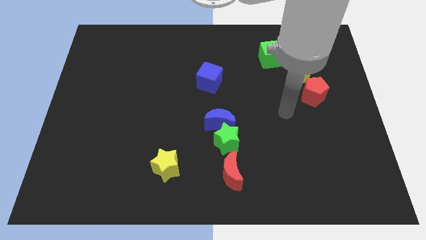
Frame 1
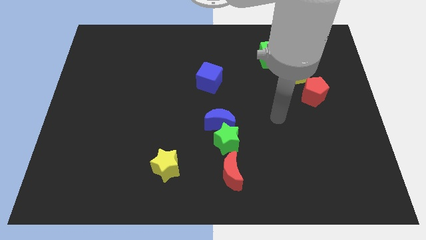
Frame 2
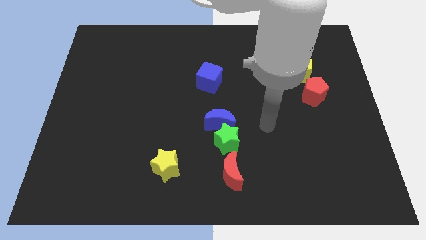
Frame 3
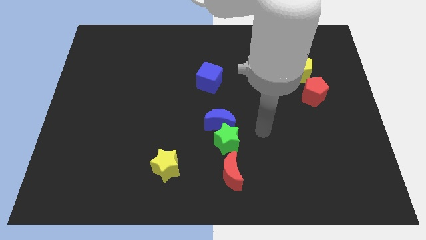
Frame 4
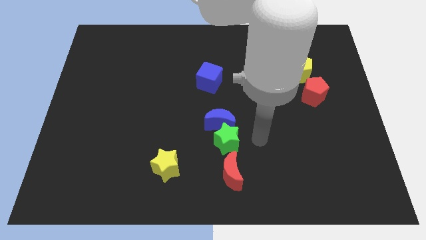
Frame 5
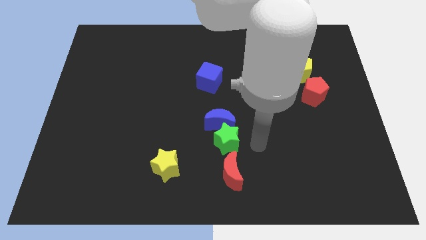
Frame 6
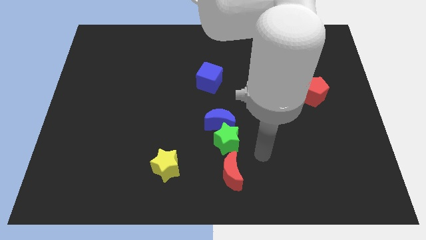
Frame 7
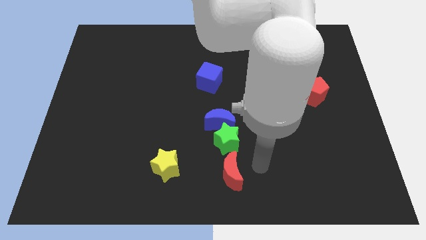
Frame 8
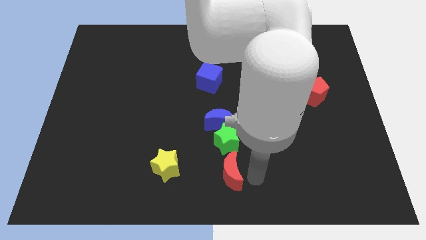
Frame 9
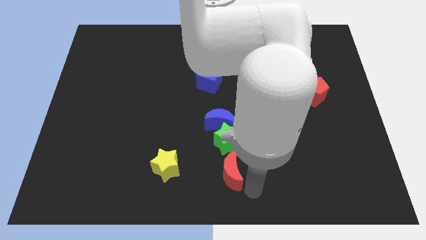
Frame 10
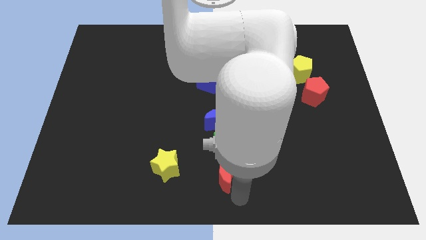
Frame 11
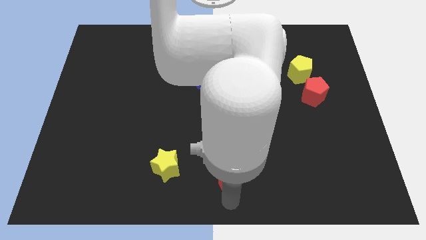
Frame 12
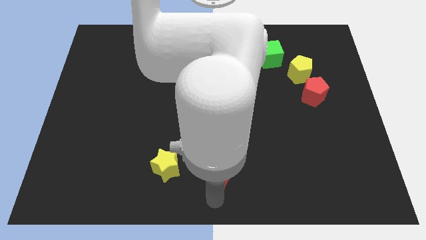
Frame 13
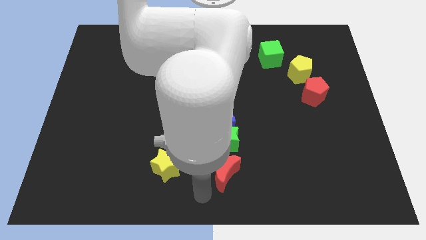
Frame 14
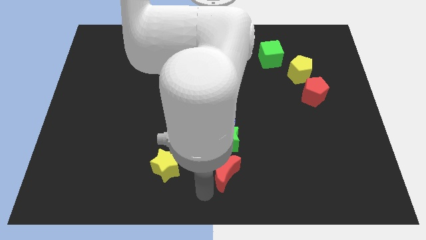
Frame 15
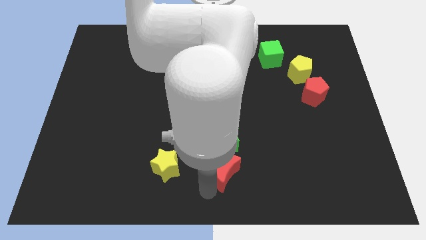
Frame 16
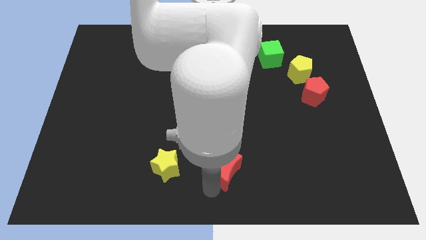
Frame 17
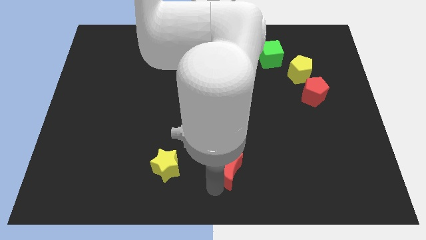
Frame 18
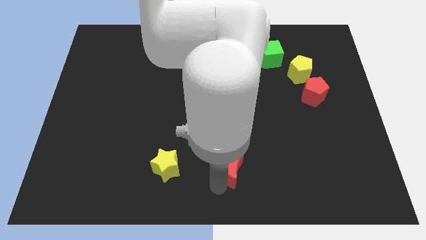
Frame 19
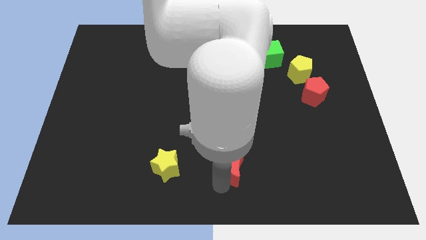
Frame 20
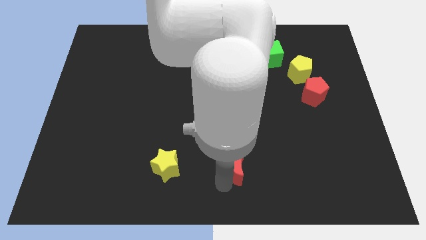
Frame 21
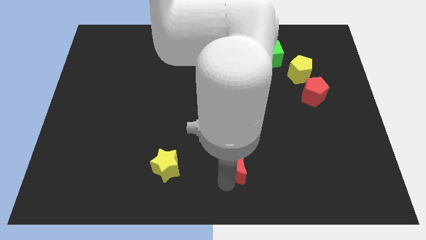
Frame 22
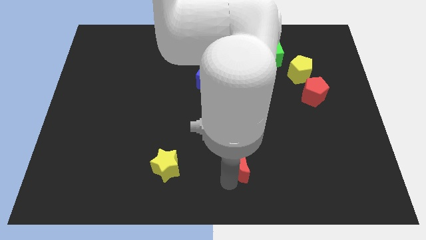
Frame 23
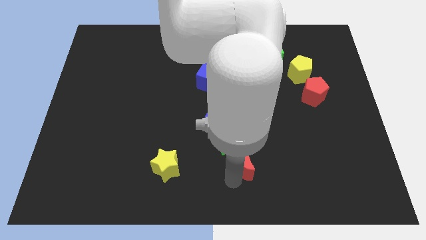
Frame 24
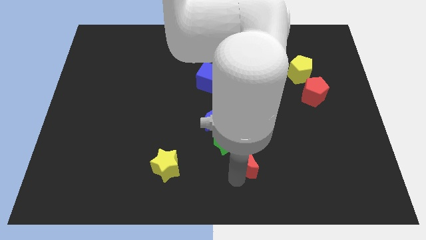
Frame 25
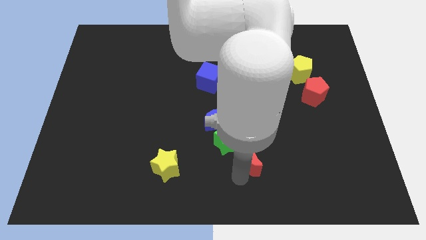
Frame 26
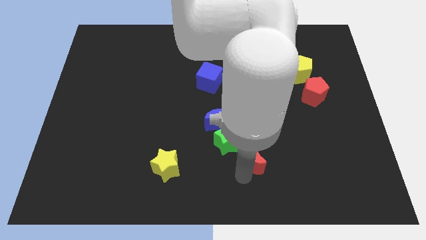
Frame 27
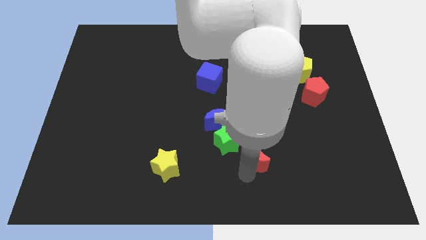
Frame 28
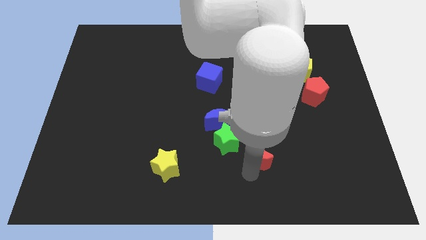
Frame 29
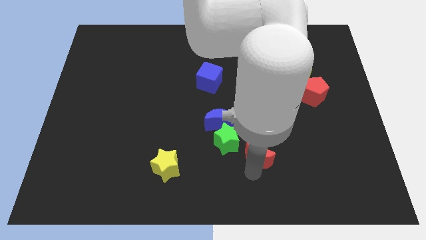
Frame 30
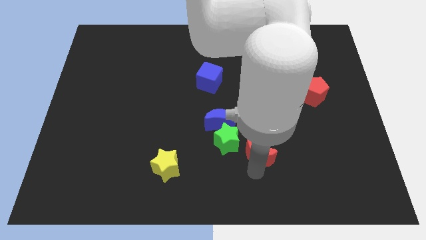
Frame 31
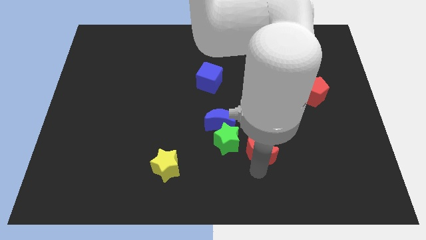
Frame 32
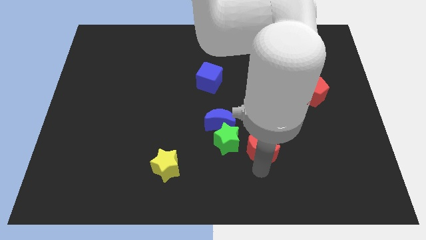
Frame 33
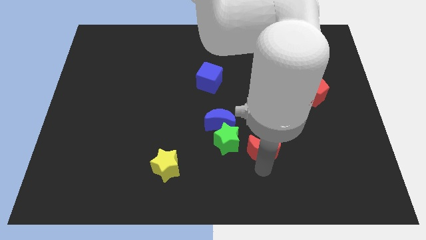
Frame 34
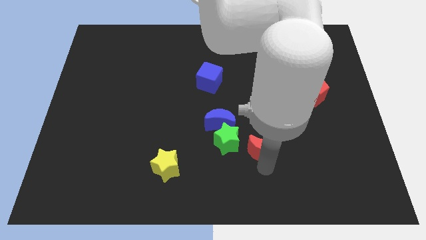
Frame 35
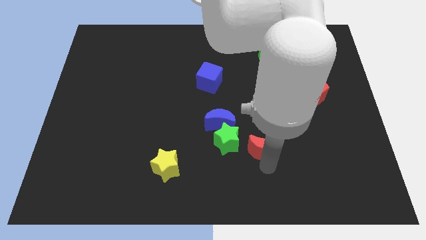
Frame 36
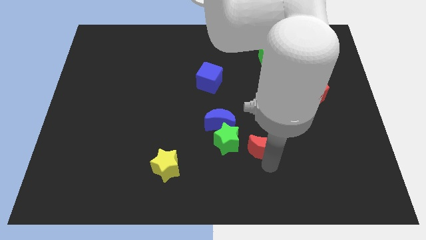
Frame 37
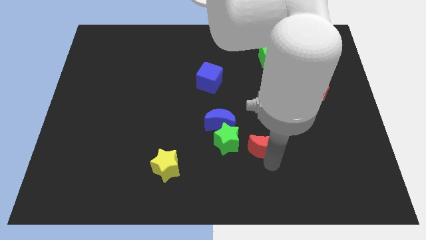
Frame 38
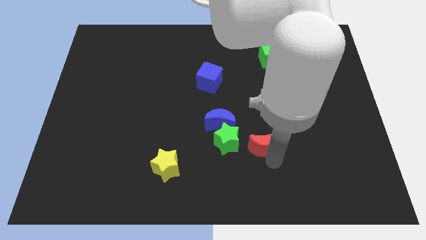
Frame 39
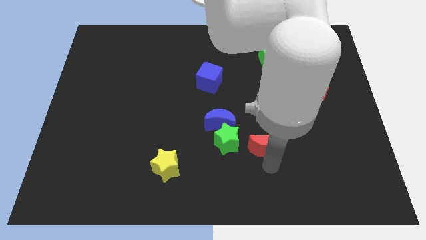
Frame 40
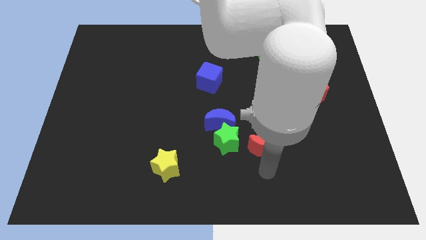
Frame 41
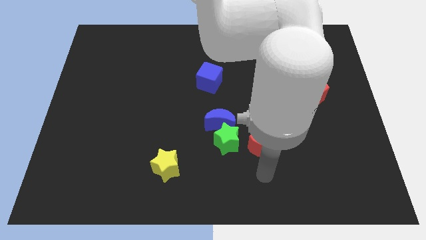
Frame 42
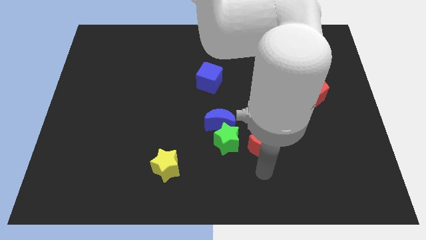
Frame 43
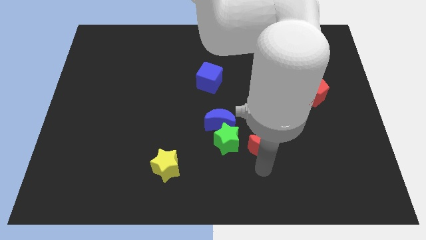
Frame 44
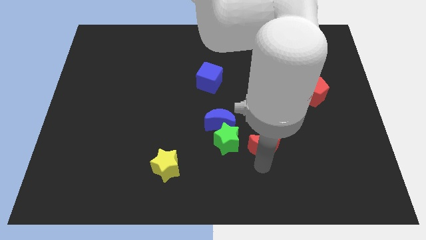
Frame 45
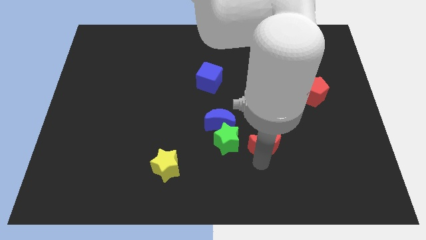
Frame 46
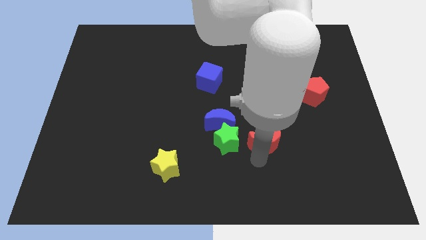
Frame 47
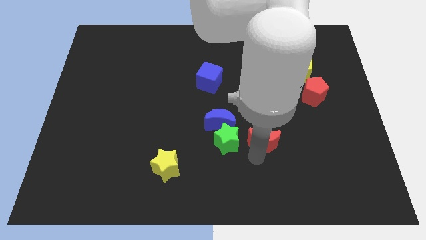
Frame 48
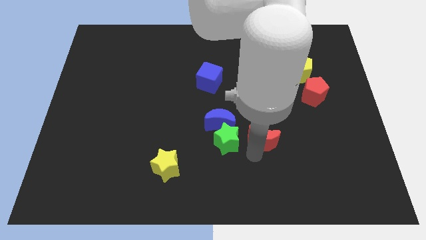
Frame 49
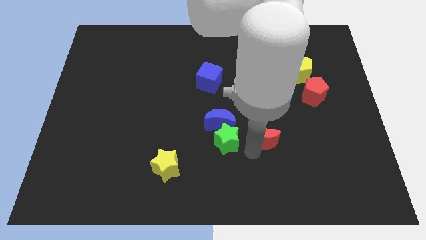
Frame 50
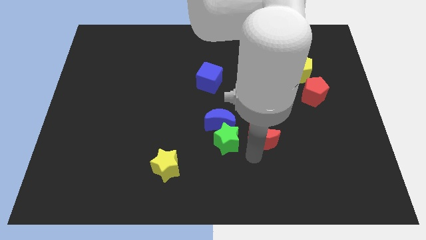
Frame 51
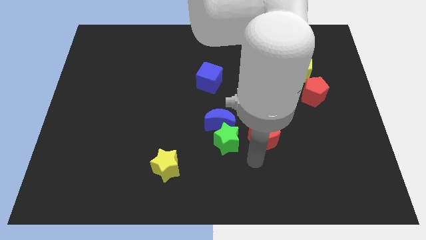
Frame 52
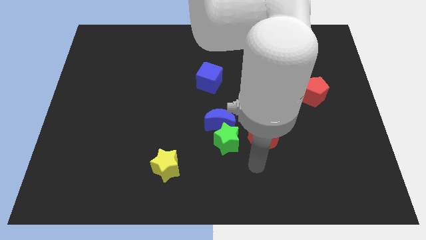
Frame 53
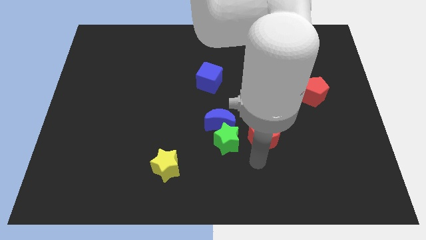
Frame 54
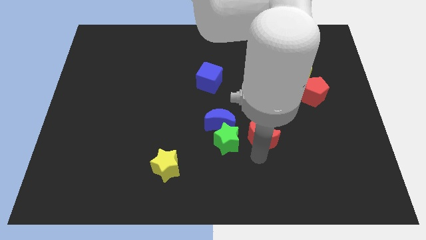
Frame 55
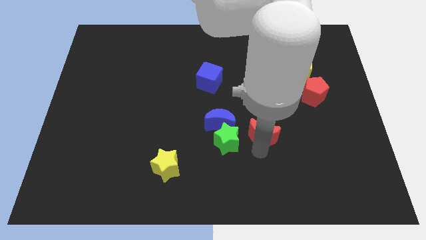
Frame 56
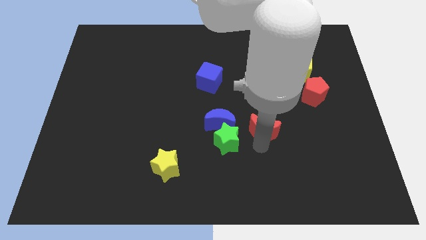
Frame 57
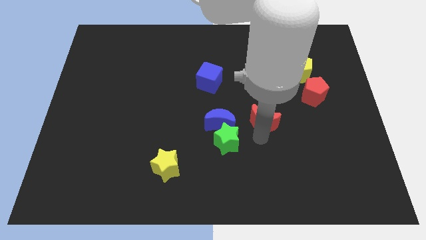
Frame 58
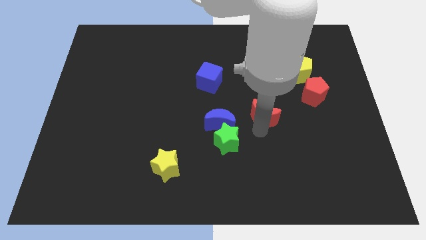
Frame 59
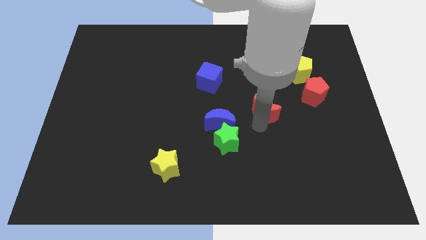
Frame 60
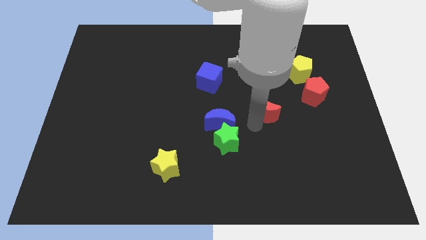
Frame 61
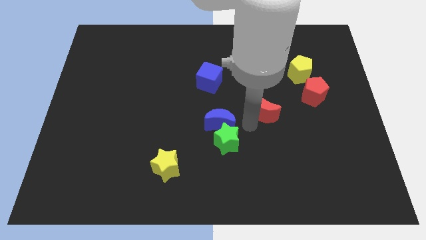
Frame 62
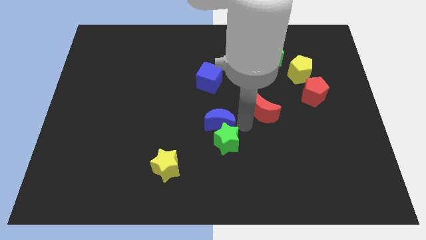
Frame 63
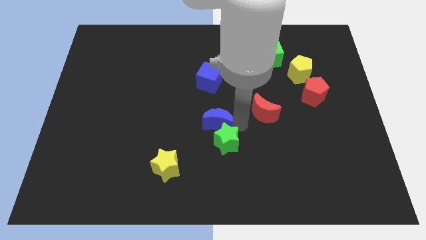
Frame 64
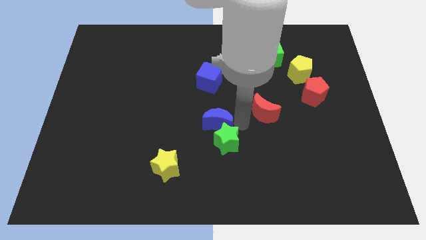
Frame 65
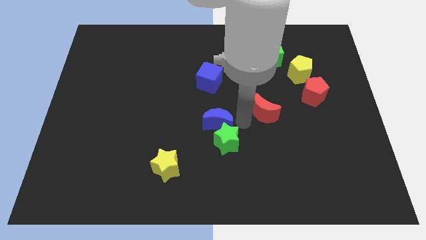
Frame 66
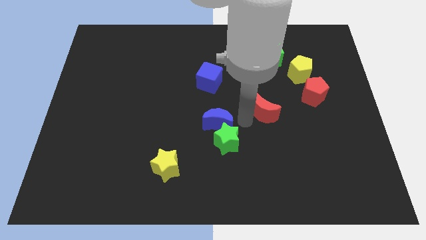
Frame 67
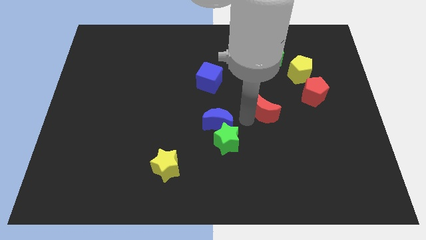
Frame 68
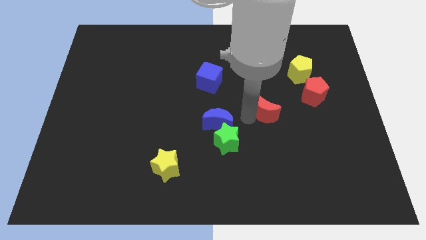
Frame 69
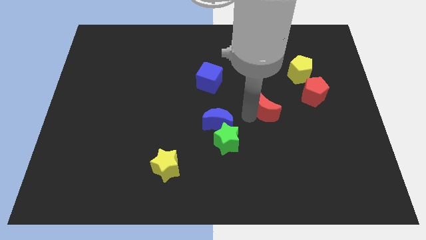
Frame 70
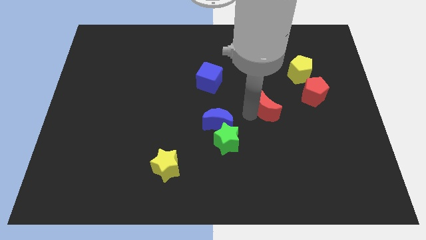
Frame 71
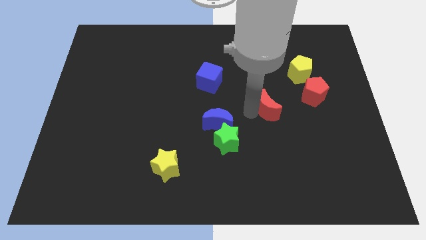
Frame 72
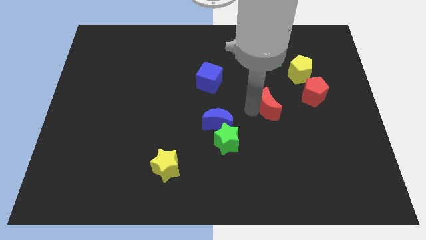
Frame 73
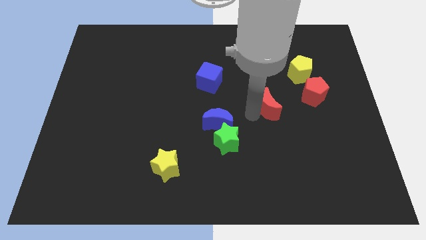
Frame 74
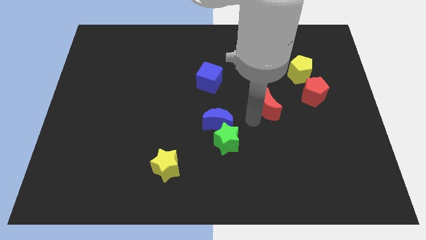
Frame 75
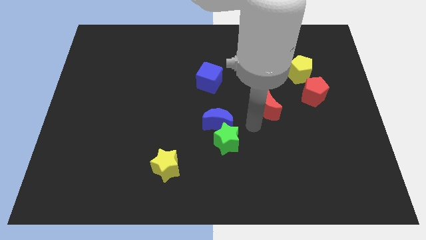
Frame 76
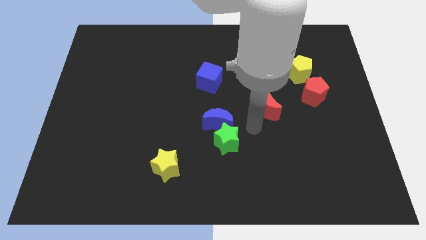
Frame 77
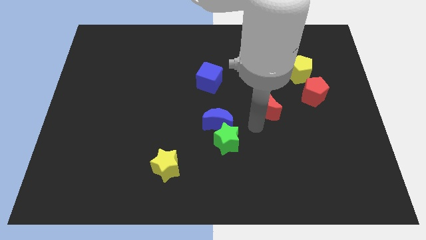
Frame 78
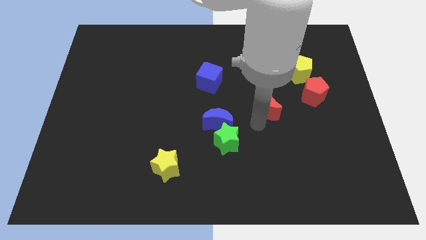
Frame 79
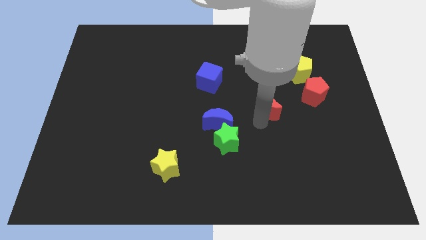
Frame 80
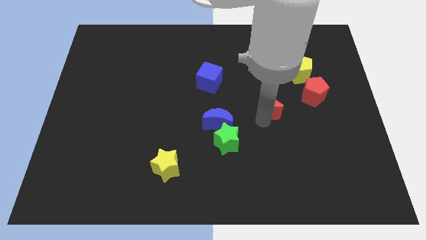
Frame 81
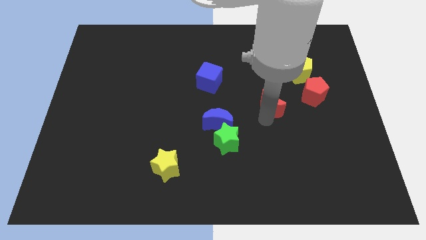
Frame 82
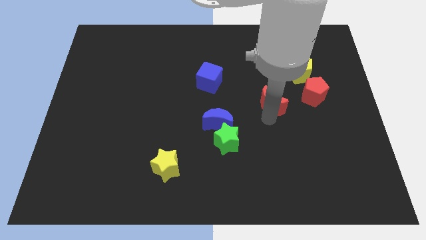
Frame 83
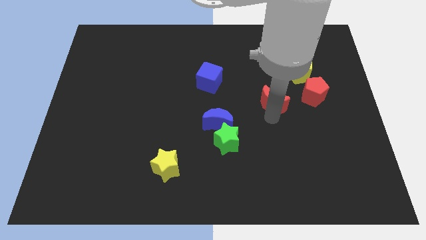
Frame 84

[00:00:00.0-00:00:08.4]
slide the red moon to the bottom left side of the yellow pentagon
